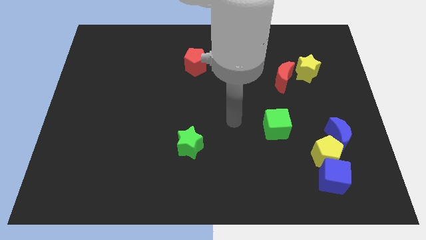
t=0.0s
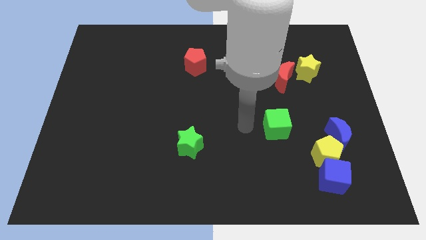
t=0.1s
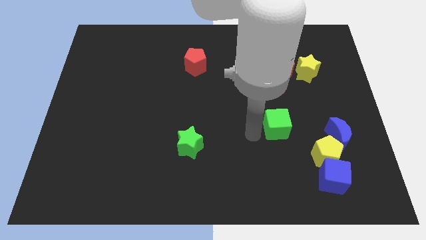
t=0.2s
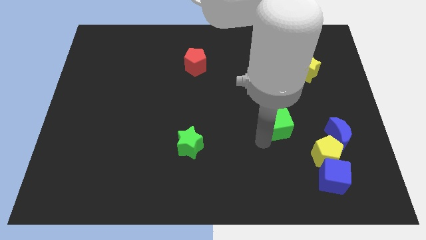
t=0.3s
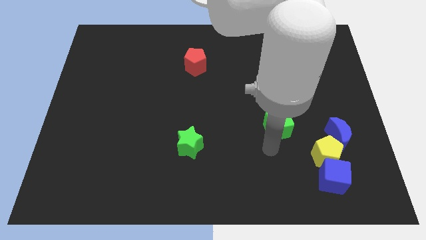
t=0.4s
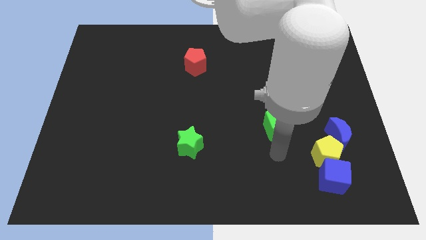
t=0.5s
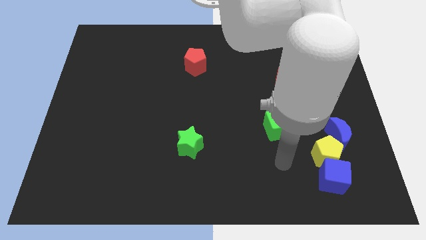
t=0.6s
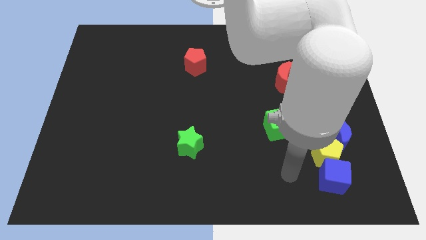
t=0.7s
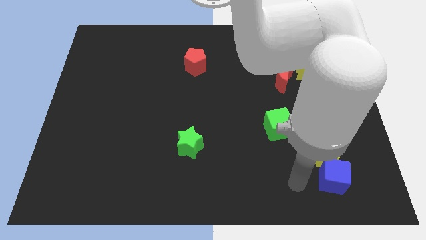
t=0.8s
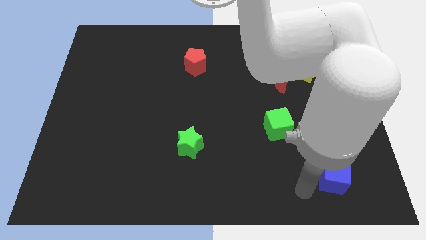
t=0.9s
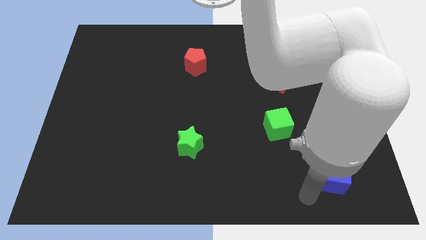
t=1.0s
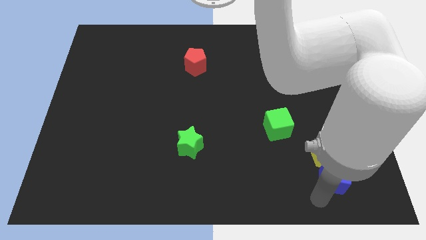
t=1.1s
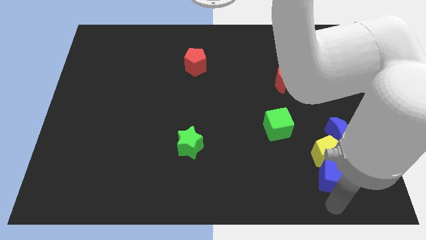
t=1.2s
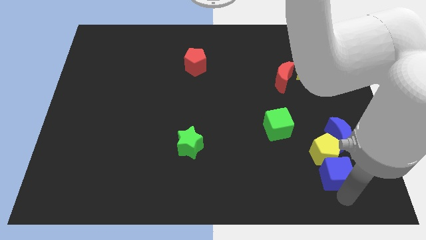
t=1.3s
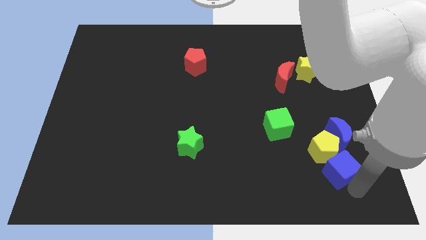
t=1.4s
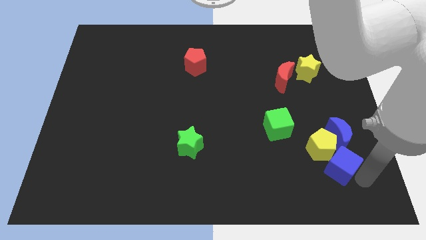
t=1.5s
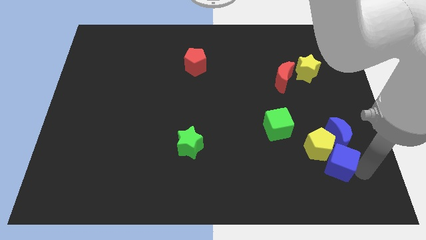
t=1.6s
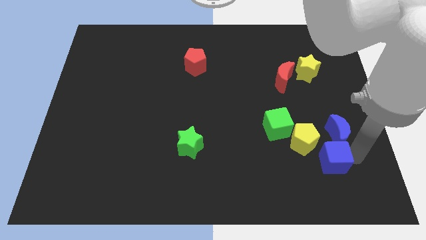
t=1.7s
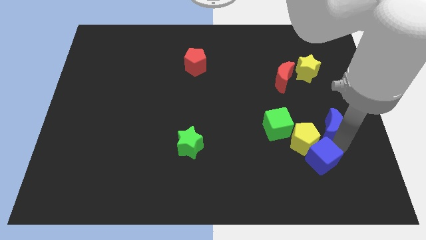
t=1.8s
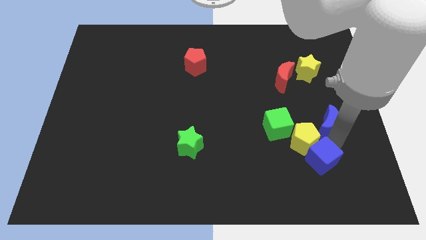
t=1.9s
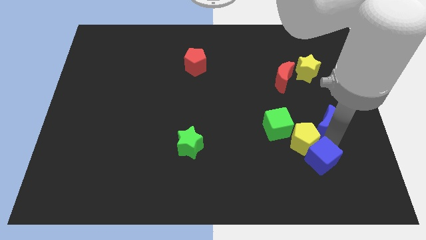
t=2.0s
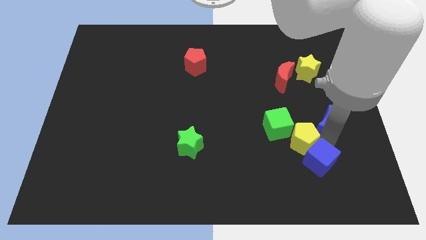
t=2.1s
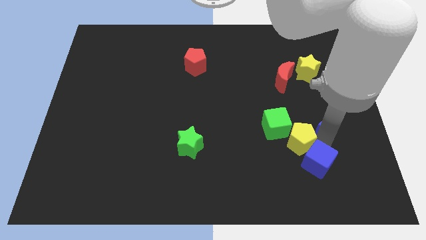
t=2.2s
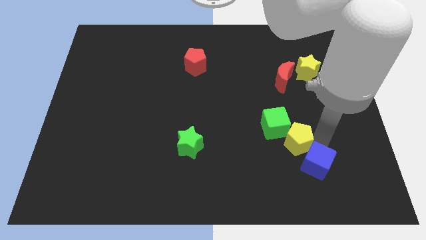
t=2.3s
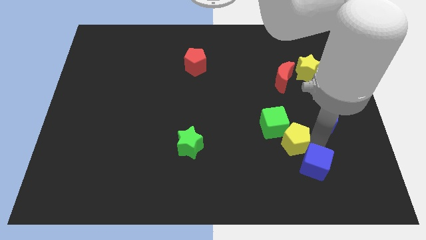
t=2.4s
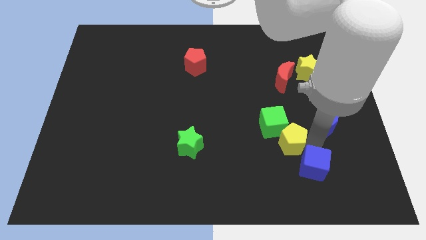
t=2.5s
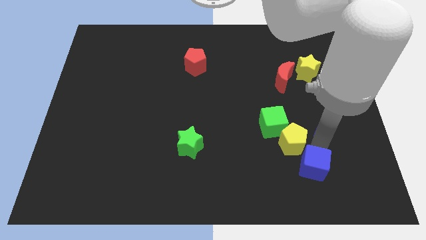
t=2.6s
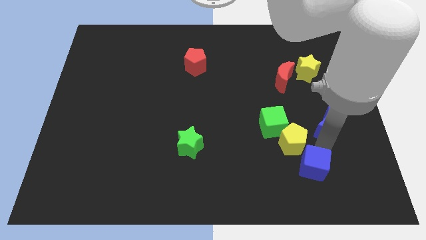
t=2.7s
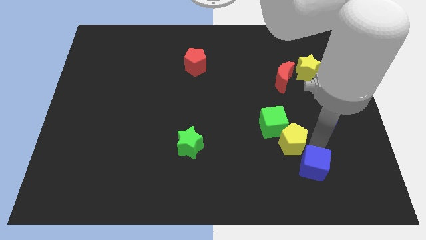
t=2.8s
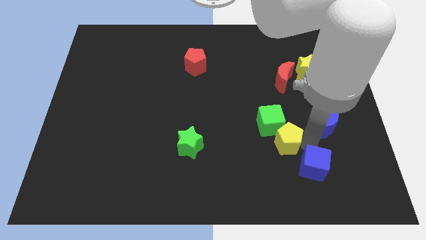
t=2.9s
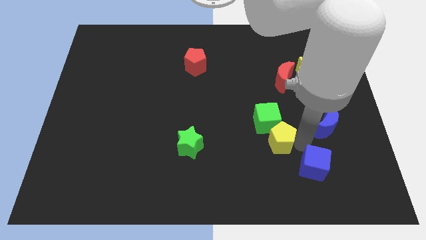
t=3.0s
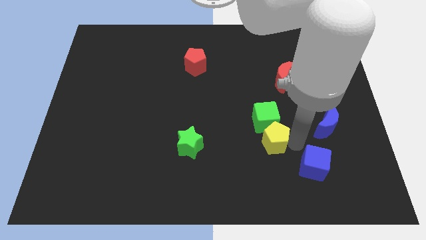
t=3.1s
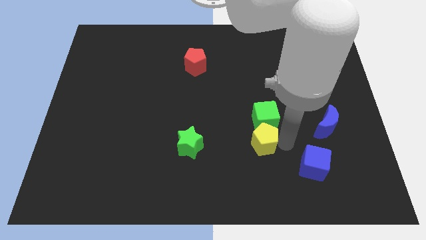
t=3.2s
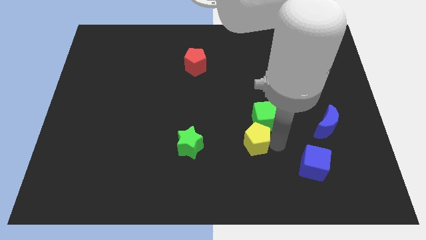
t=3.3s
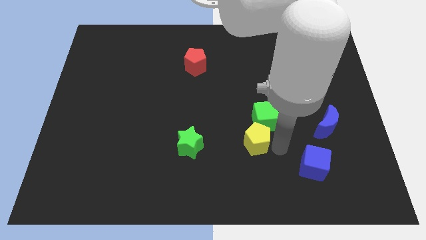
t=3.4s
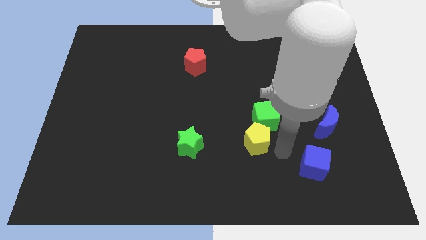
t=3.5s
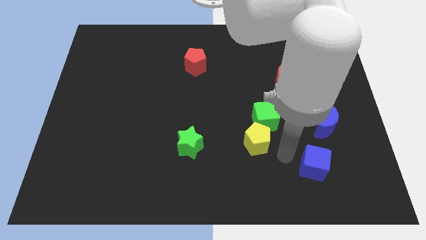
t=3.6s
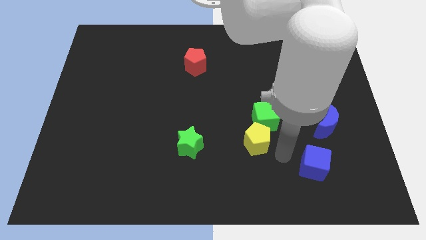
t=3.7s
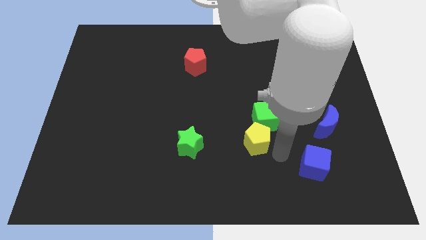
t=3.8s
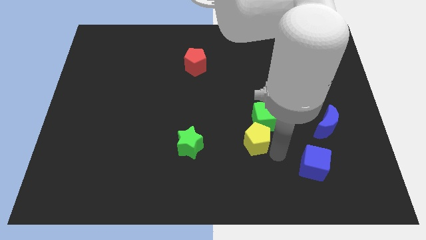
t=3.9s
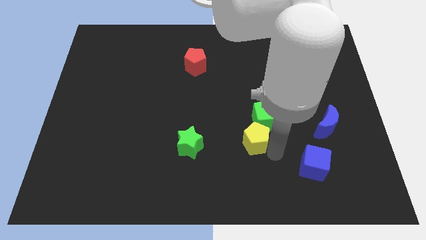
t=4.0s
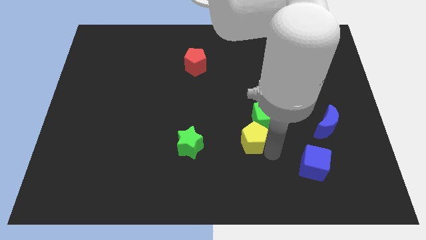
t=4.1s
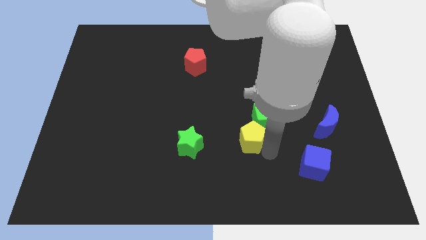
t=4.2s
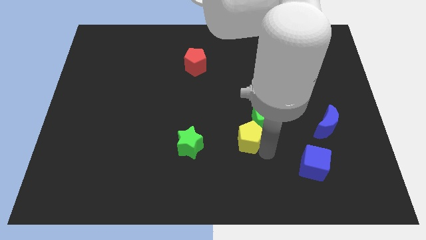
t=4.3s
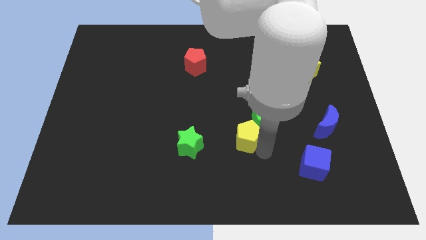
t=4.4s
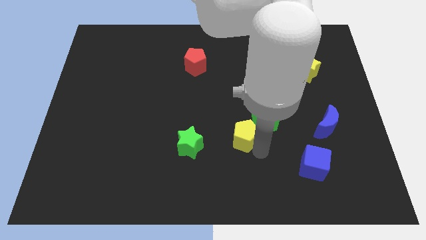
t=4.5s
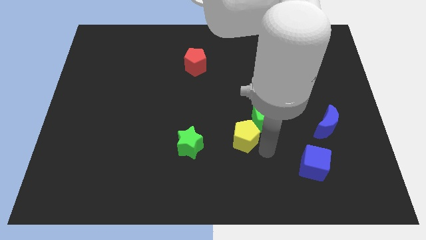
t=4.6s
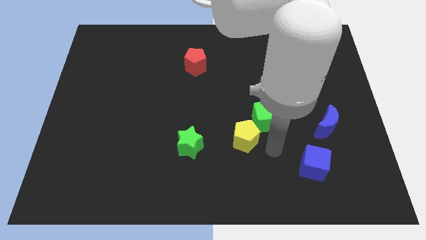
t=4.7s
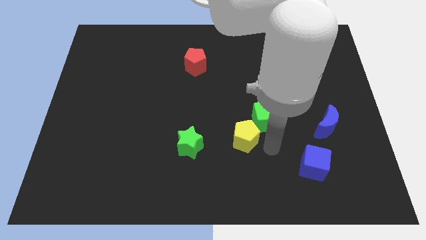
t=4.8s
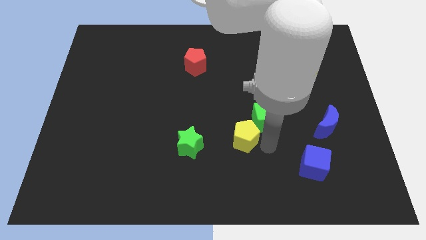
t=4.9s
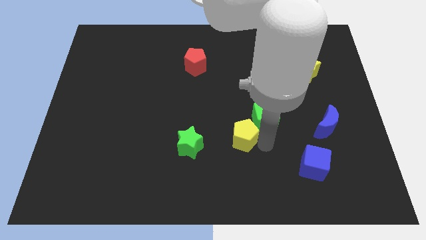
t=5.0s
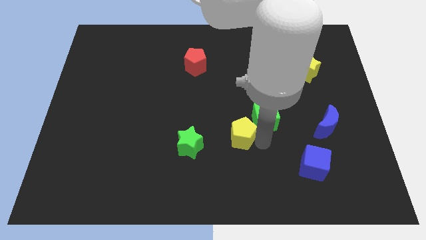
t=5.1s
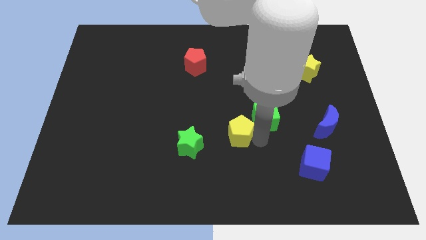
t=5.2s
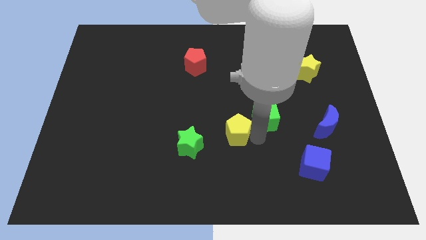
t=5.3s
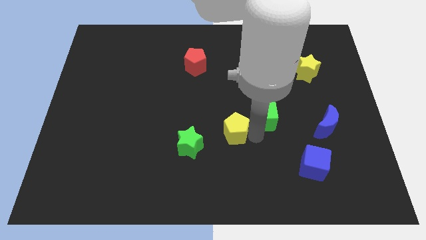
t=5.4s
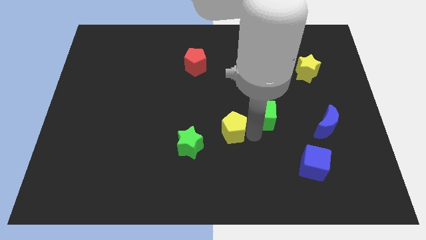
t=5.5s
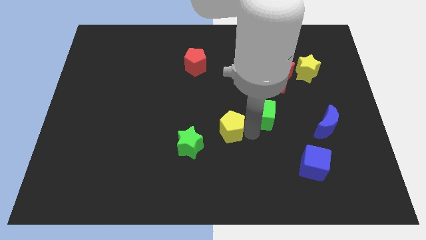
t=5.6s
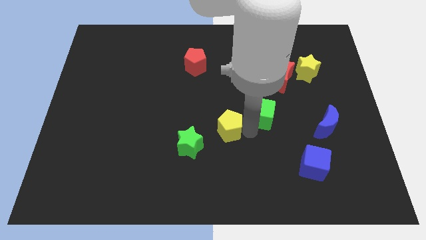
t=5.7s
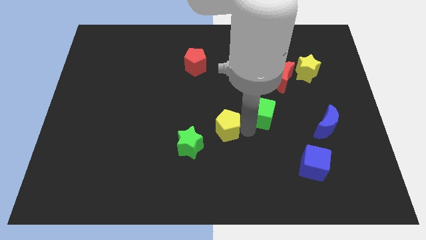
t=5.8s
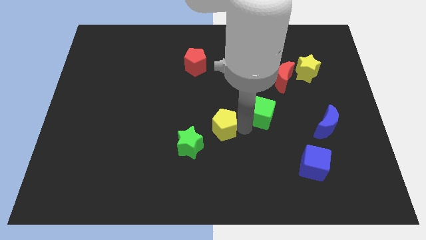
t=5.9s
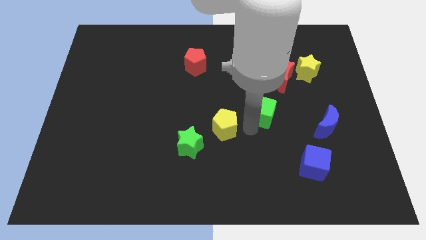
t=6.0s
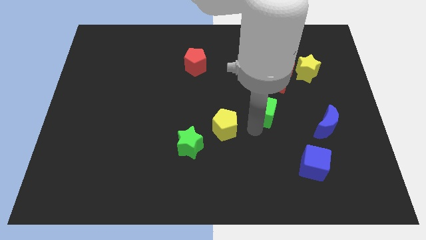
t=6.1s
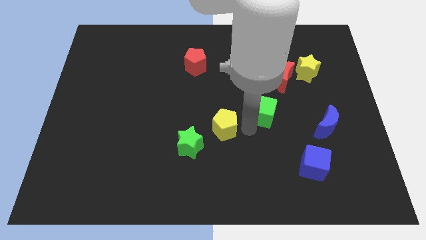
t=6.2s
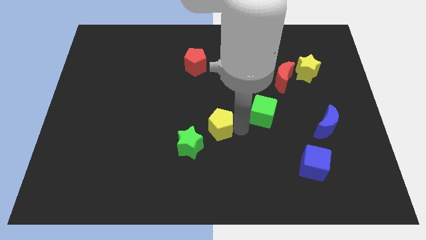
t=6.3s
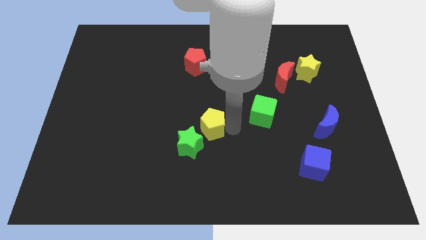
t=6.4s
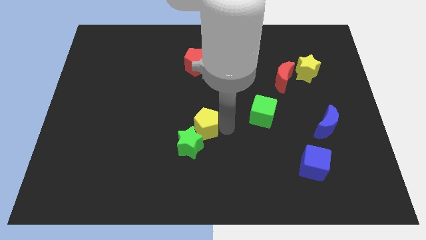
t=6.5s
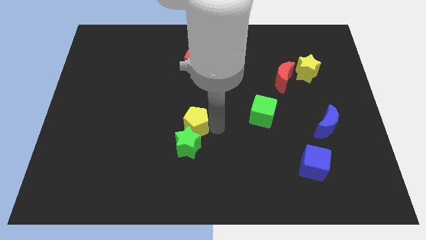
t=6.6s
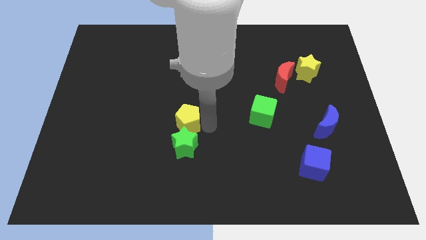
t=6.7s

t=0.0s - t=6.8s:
slide the yellow pentagon to the top left side of the green star

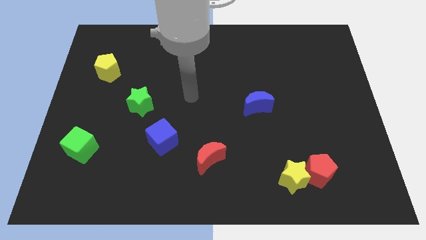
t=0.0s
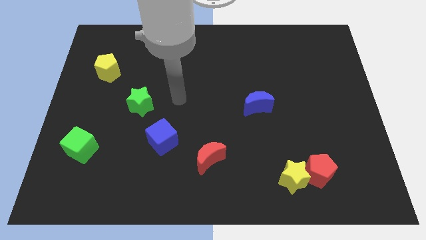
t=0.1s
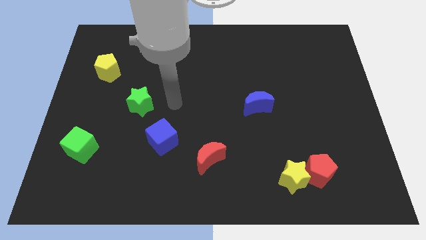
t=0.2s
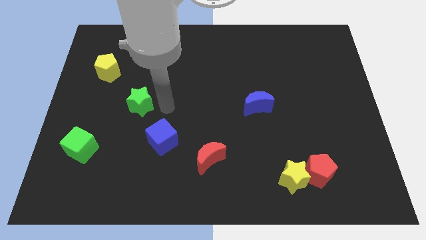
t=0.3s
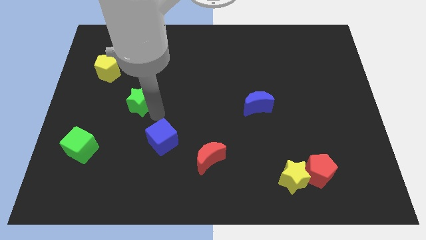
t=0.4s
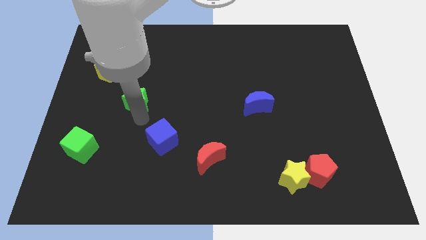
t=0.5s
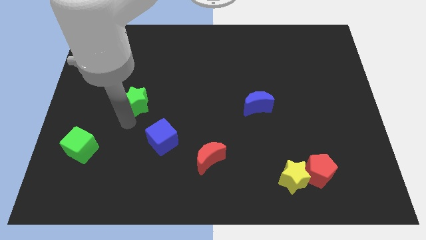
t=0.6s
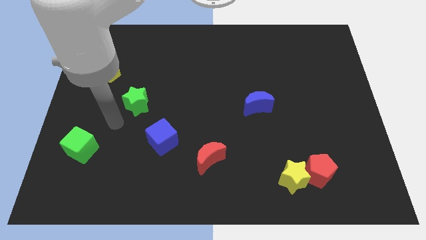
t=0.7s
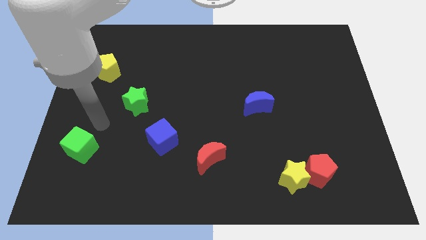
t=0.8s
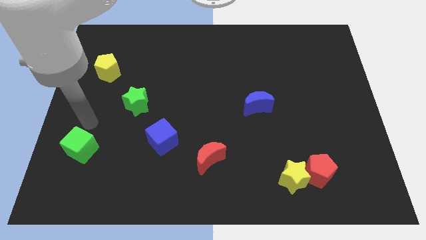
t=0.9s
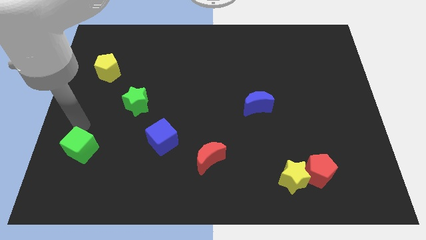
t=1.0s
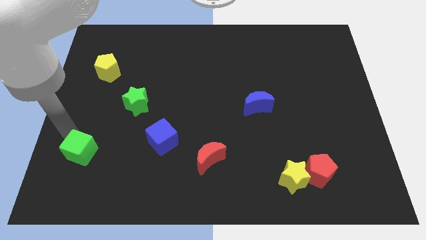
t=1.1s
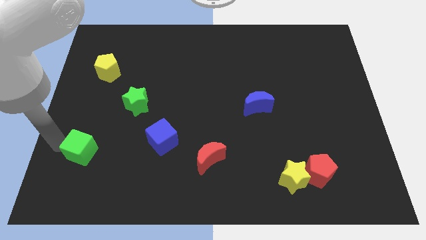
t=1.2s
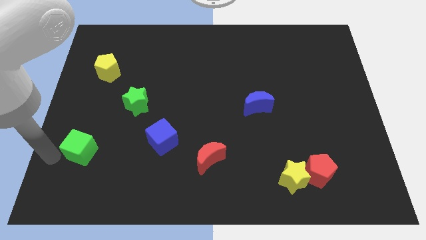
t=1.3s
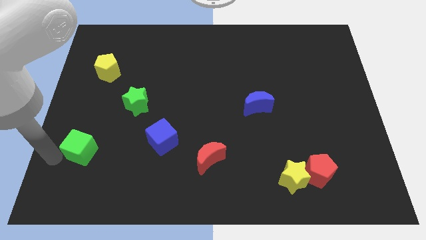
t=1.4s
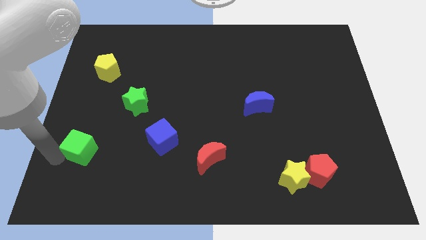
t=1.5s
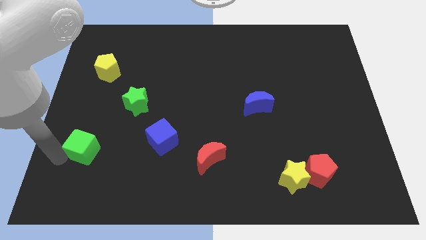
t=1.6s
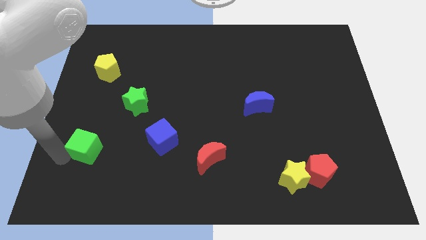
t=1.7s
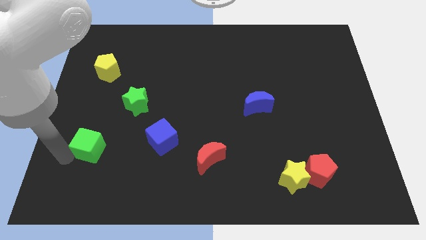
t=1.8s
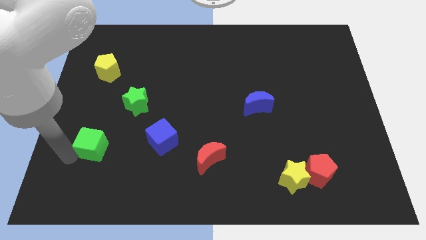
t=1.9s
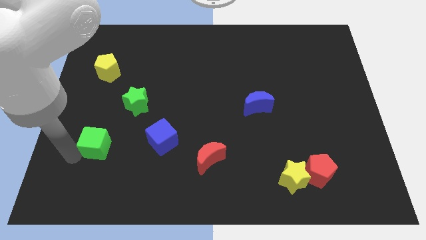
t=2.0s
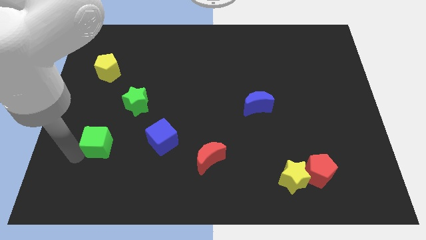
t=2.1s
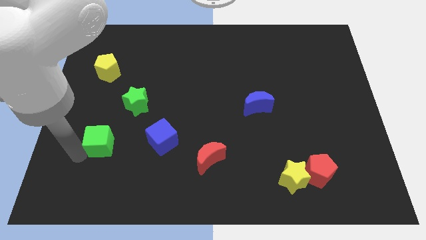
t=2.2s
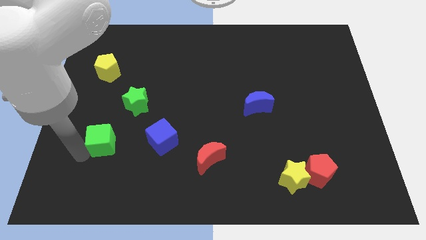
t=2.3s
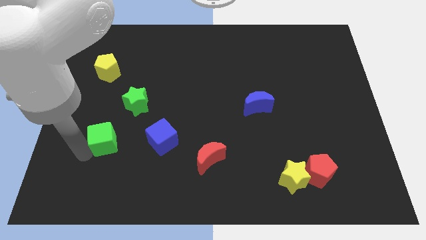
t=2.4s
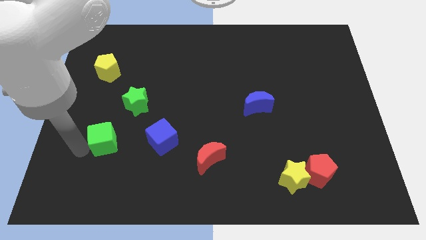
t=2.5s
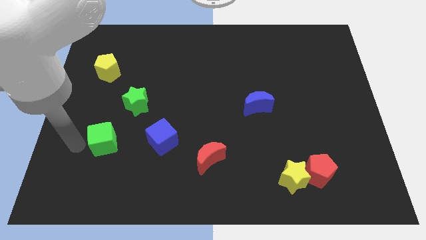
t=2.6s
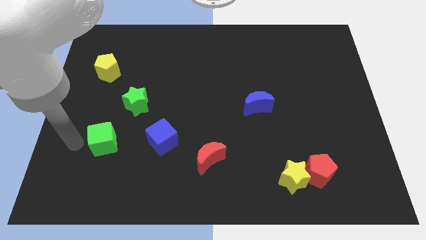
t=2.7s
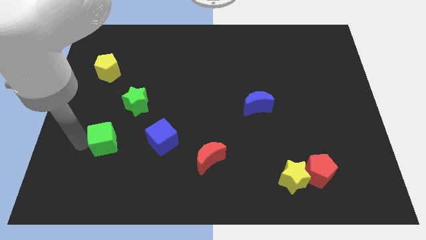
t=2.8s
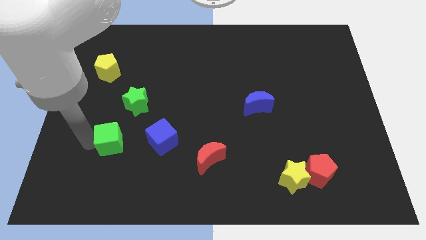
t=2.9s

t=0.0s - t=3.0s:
move the green cube below the green star
